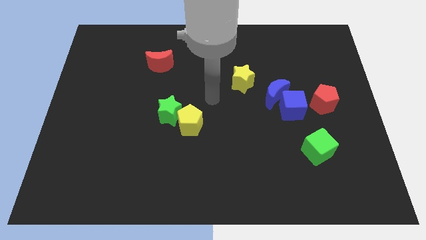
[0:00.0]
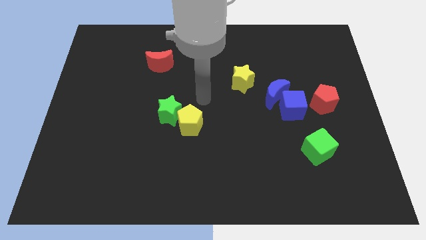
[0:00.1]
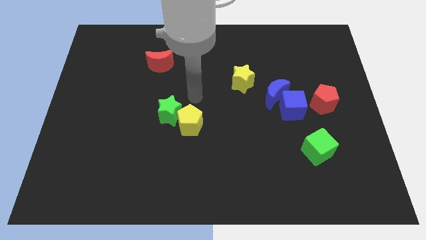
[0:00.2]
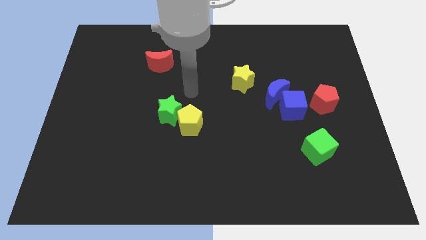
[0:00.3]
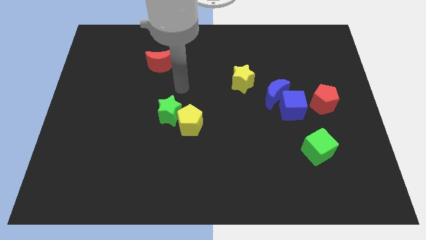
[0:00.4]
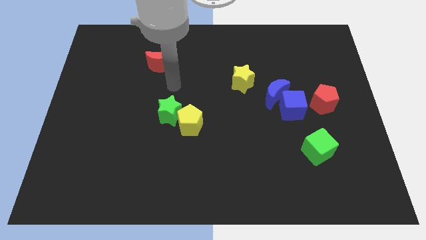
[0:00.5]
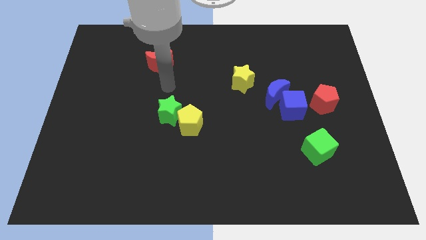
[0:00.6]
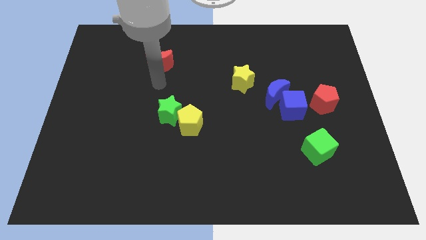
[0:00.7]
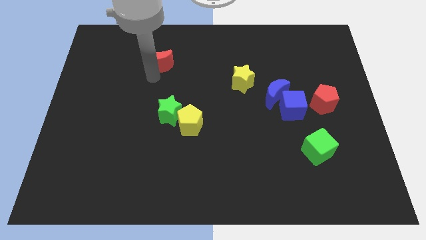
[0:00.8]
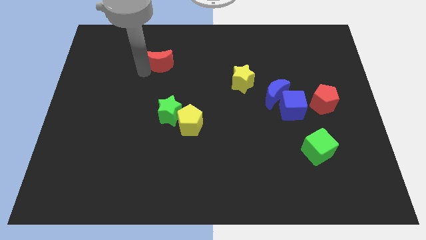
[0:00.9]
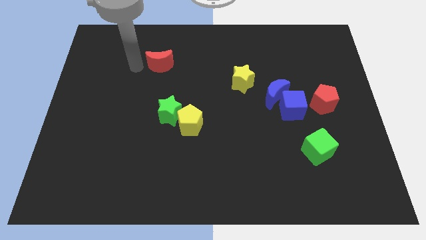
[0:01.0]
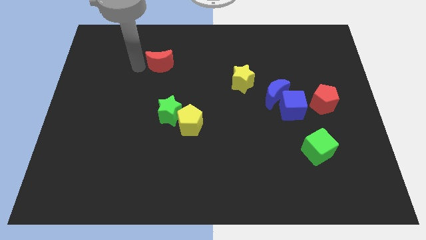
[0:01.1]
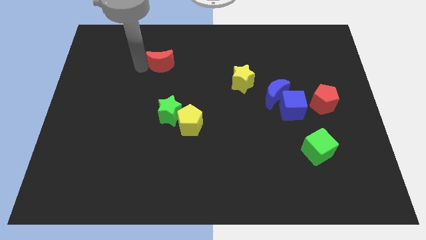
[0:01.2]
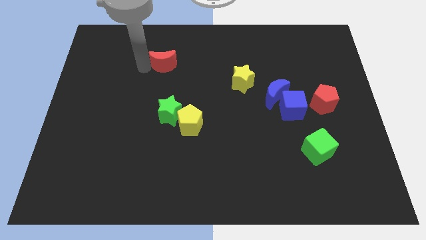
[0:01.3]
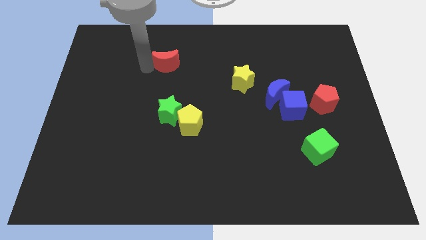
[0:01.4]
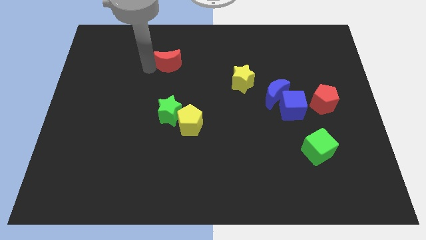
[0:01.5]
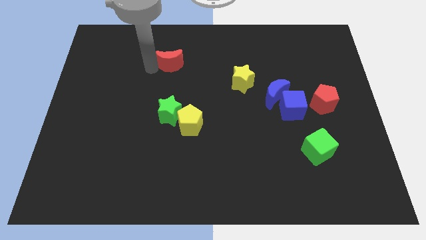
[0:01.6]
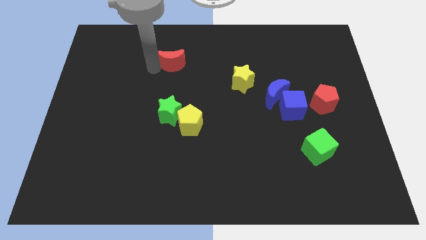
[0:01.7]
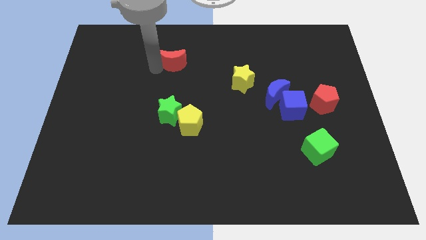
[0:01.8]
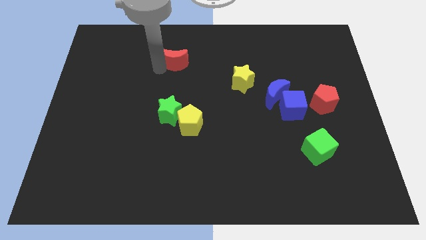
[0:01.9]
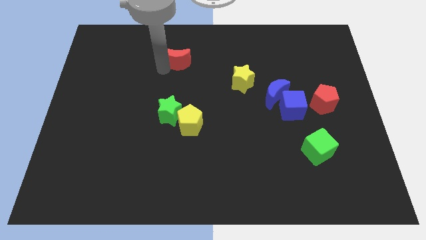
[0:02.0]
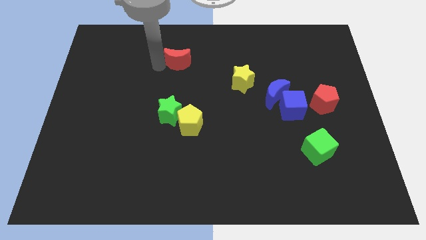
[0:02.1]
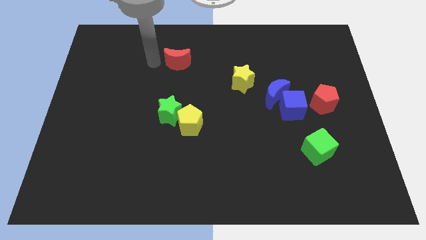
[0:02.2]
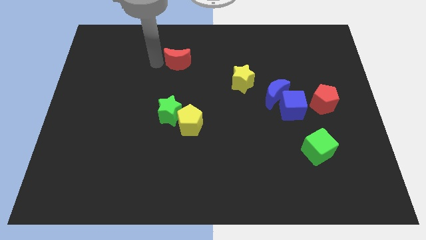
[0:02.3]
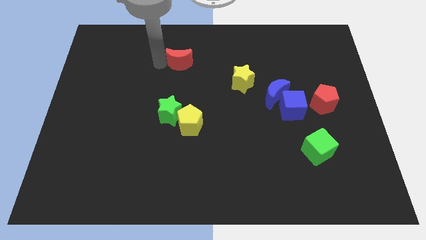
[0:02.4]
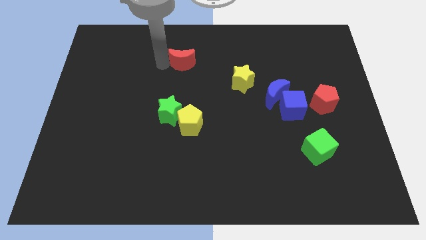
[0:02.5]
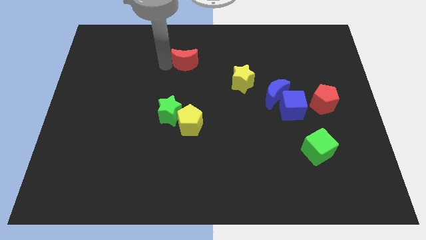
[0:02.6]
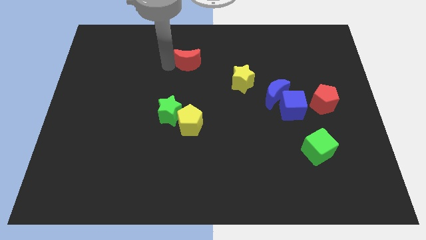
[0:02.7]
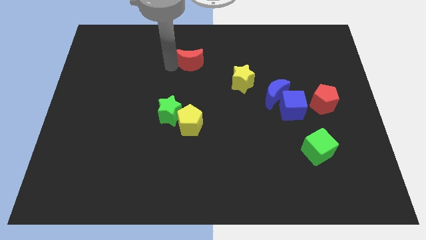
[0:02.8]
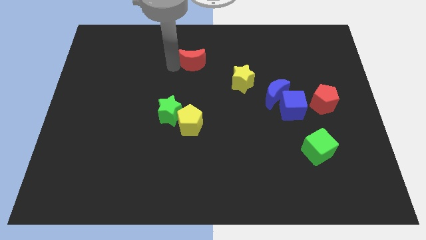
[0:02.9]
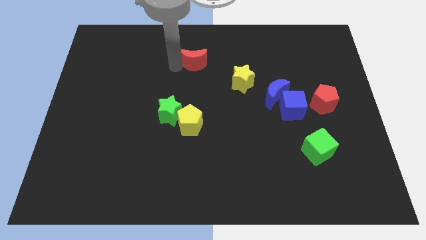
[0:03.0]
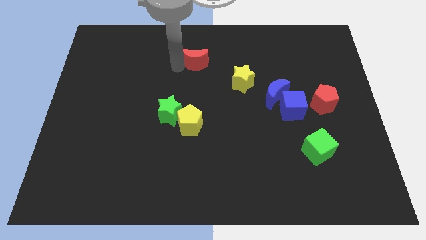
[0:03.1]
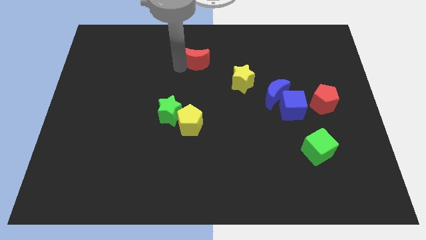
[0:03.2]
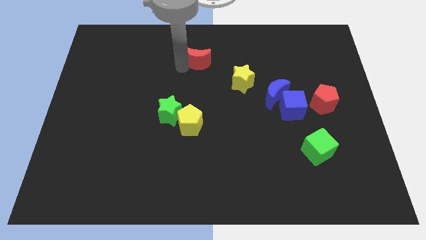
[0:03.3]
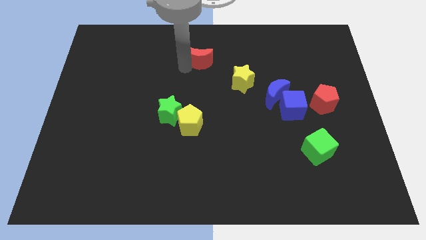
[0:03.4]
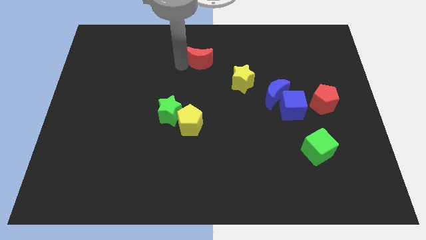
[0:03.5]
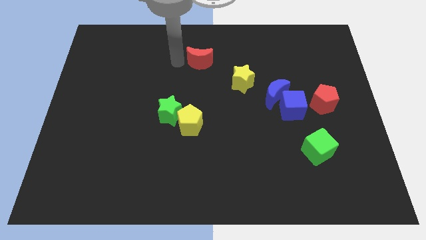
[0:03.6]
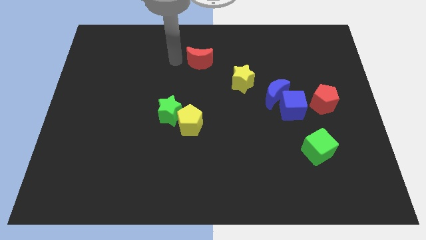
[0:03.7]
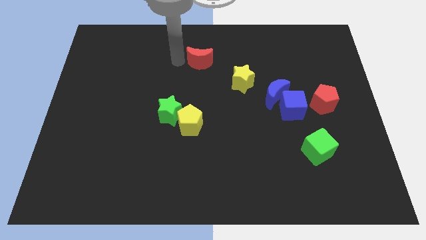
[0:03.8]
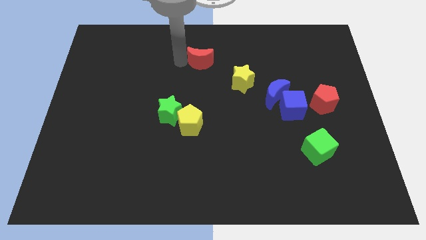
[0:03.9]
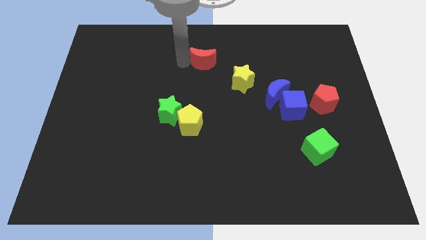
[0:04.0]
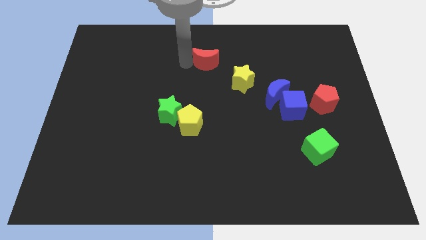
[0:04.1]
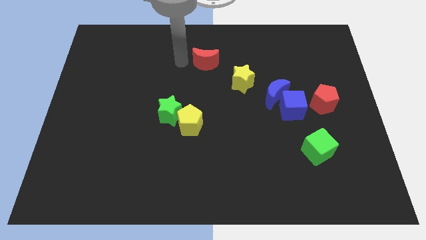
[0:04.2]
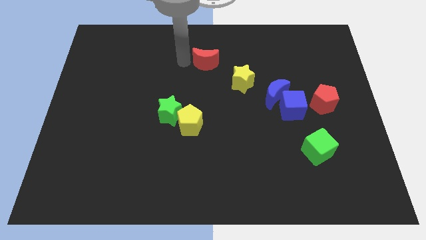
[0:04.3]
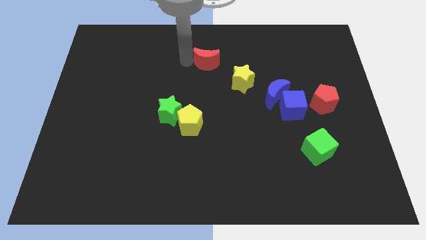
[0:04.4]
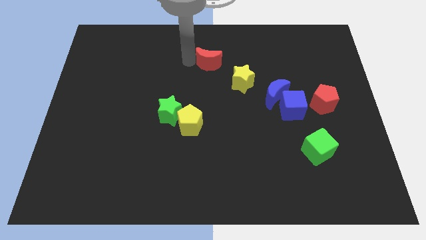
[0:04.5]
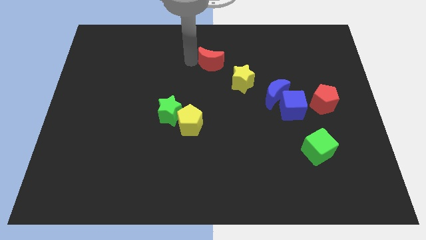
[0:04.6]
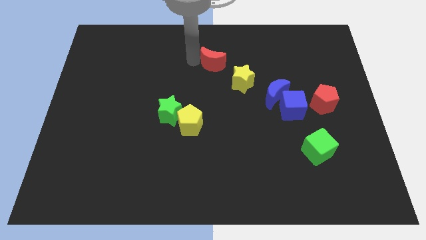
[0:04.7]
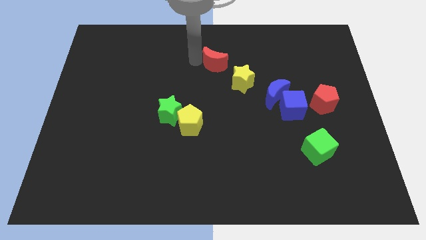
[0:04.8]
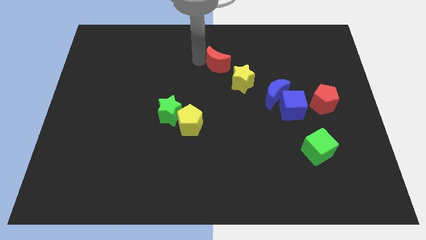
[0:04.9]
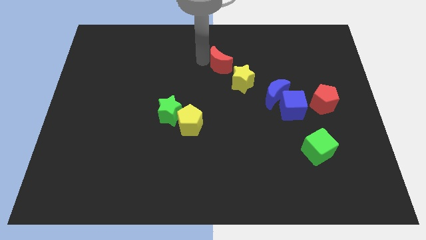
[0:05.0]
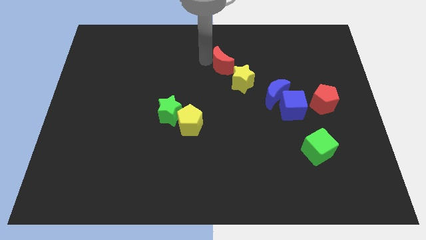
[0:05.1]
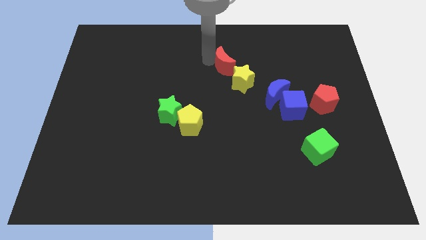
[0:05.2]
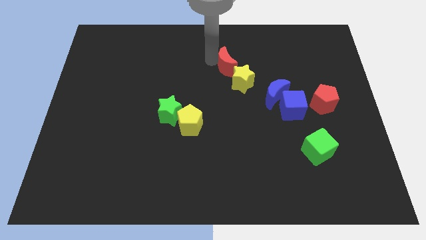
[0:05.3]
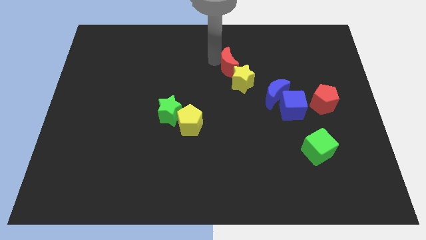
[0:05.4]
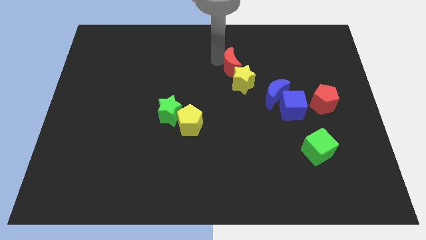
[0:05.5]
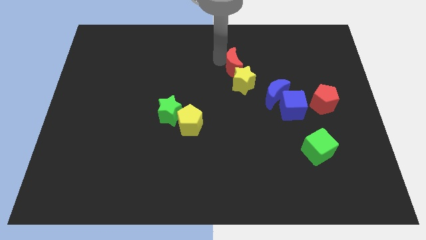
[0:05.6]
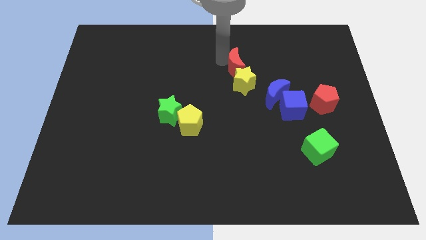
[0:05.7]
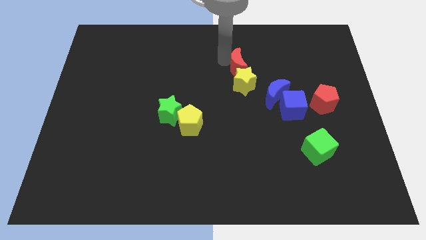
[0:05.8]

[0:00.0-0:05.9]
slide the red moon to the right

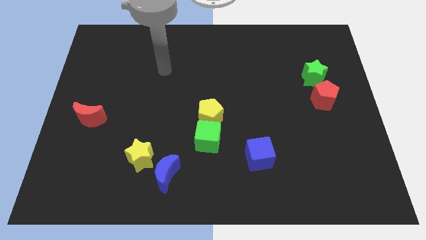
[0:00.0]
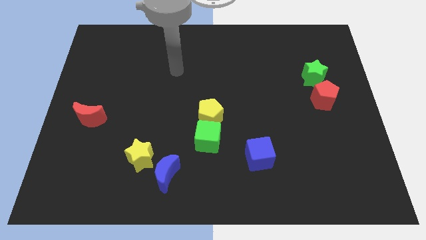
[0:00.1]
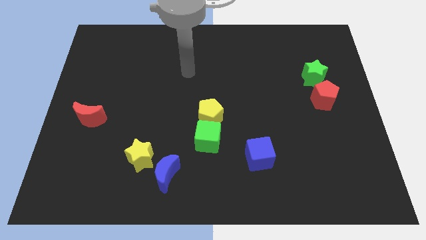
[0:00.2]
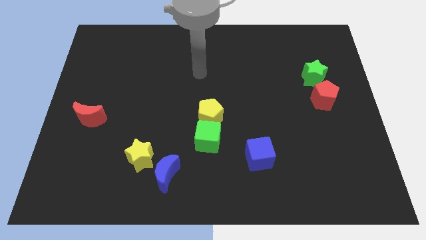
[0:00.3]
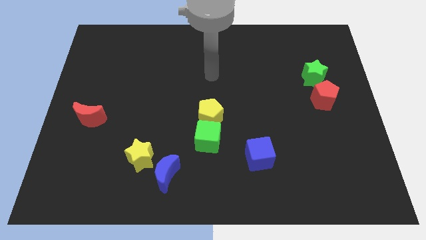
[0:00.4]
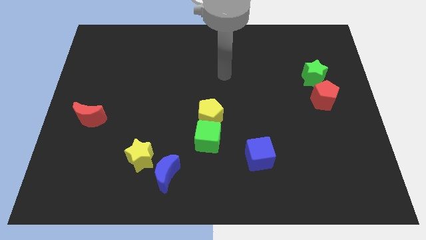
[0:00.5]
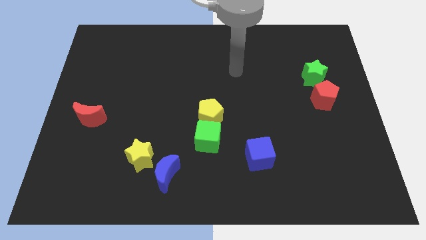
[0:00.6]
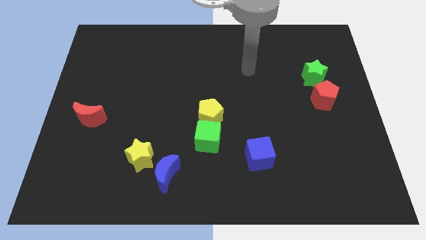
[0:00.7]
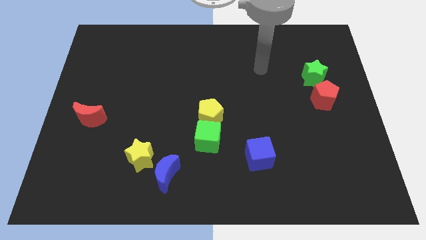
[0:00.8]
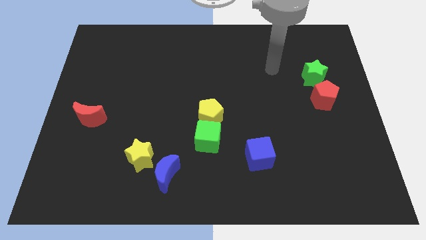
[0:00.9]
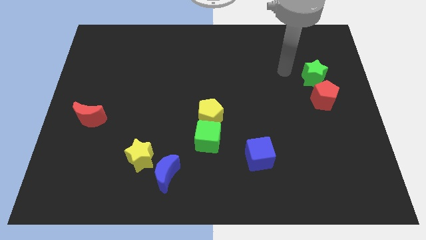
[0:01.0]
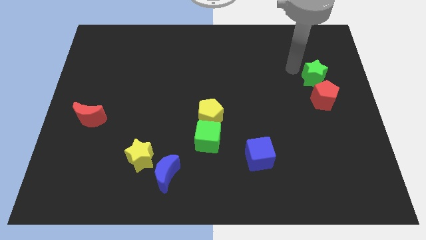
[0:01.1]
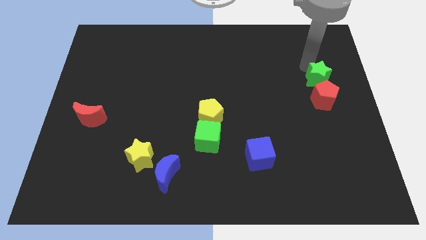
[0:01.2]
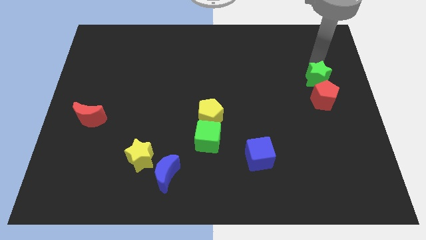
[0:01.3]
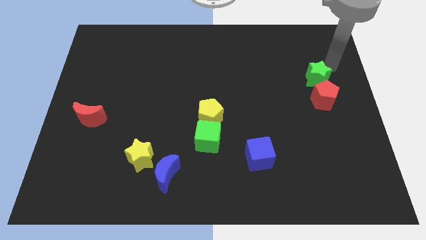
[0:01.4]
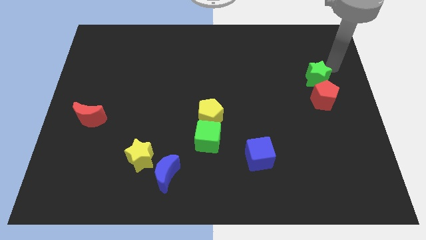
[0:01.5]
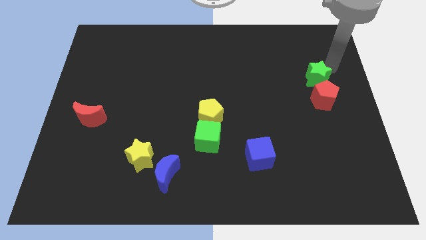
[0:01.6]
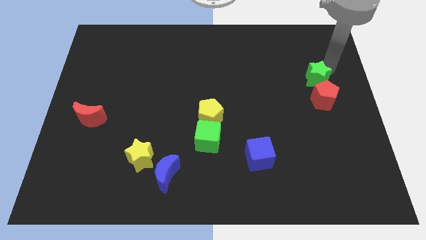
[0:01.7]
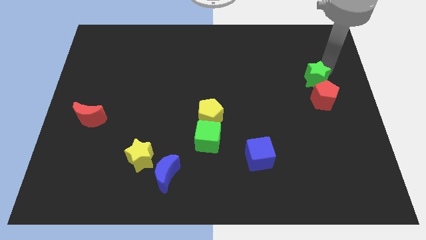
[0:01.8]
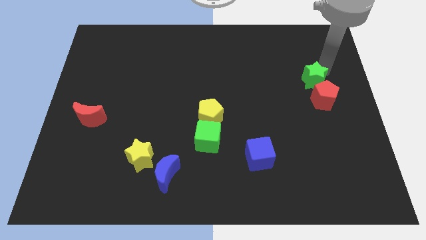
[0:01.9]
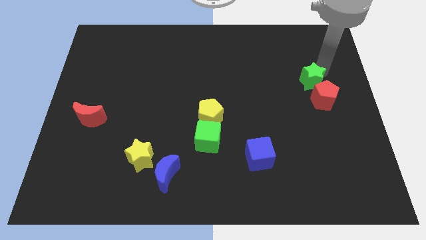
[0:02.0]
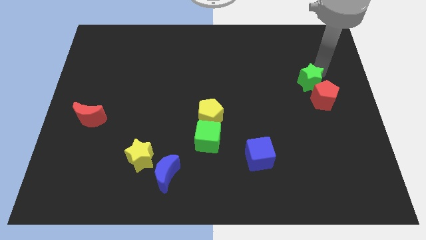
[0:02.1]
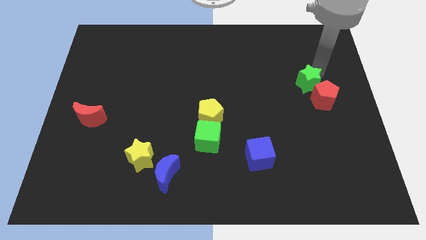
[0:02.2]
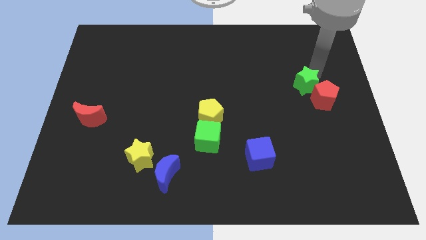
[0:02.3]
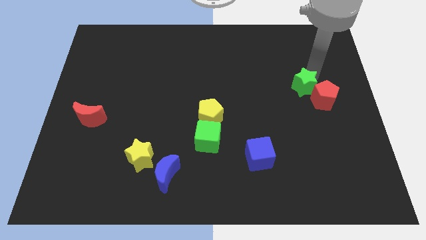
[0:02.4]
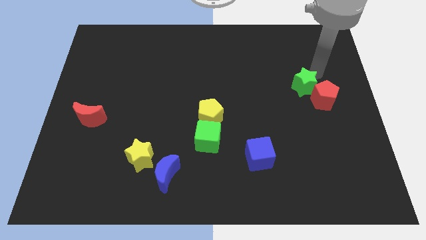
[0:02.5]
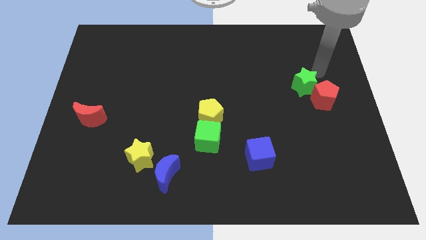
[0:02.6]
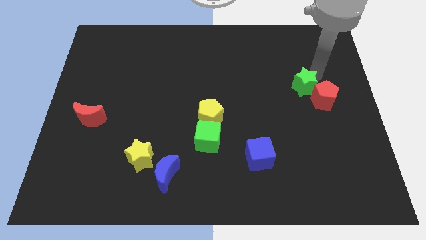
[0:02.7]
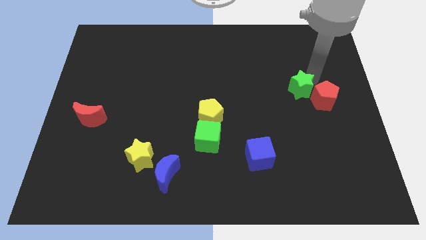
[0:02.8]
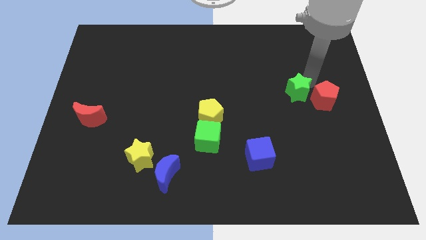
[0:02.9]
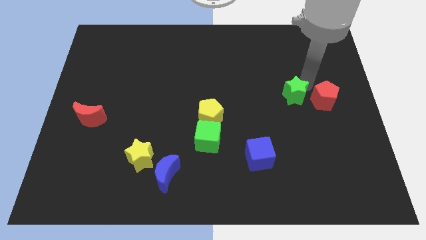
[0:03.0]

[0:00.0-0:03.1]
slide the green star a bit down and then to the left
